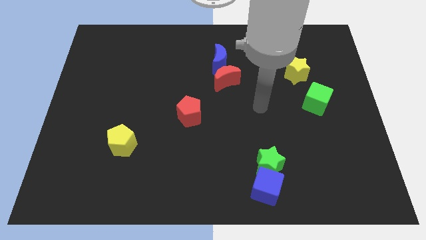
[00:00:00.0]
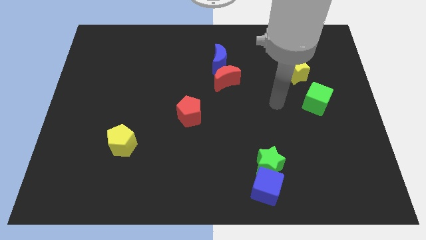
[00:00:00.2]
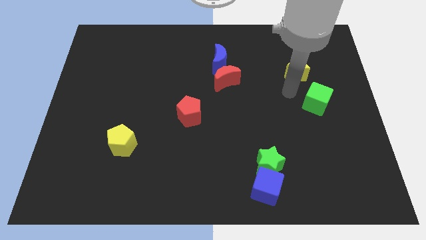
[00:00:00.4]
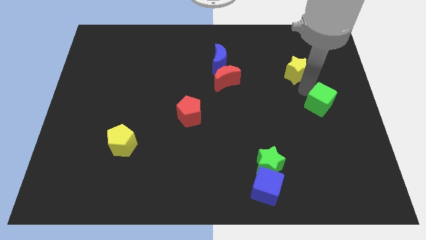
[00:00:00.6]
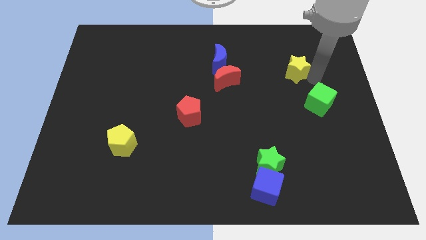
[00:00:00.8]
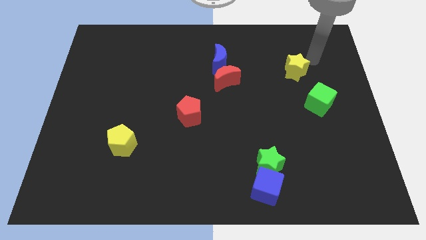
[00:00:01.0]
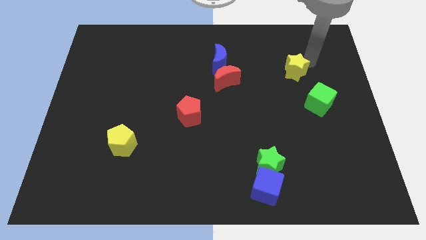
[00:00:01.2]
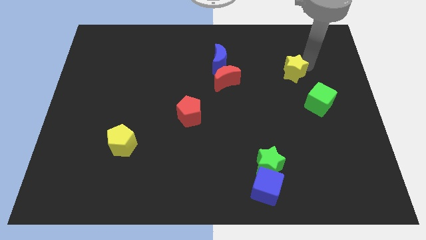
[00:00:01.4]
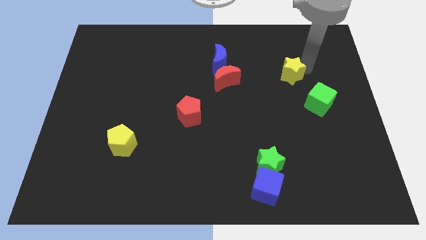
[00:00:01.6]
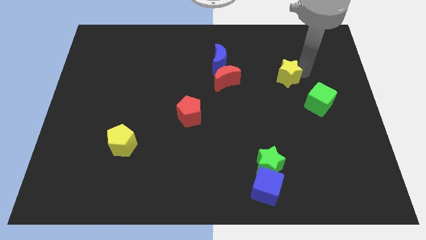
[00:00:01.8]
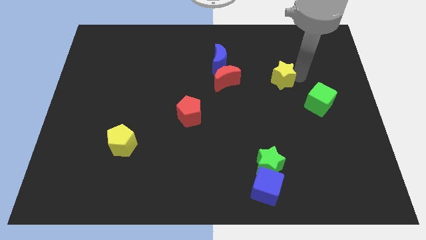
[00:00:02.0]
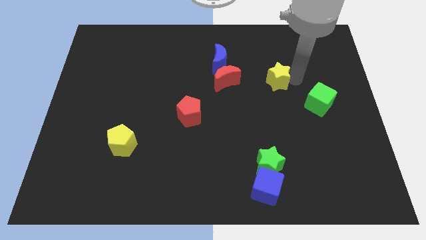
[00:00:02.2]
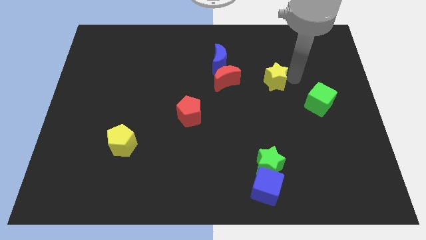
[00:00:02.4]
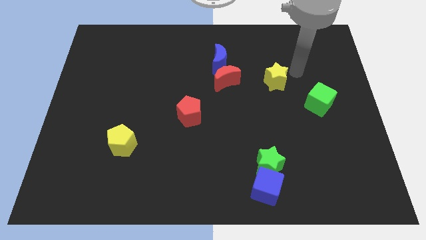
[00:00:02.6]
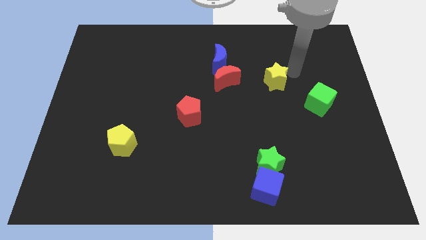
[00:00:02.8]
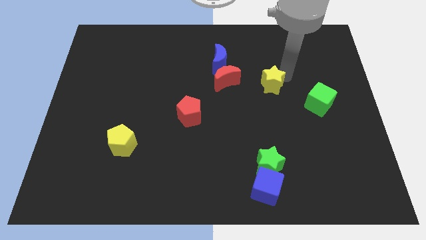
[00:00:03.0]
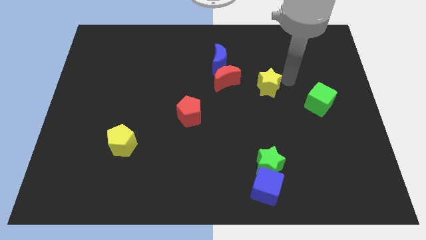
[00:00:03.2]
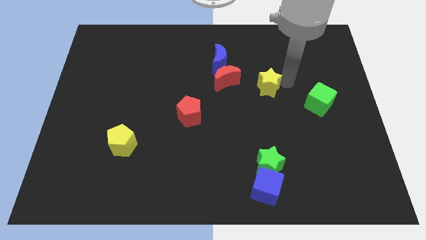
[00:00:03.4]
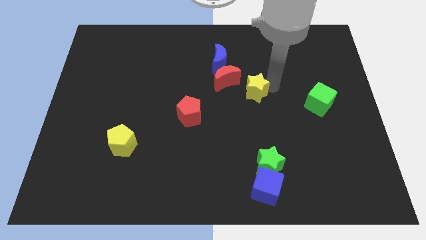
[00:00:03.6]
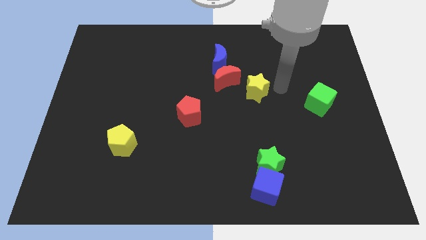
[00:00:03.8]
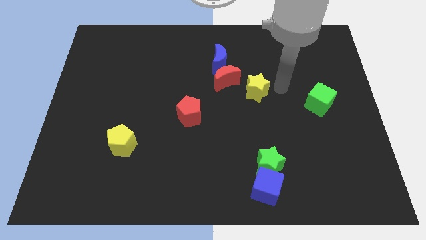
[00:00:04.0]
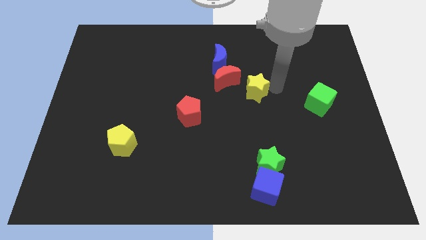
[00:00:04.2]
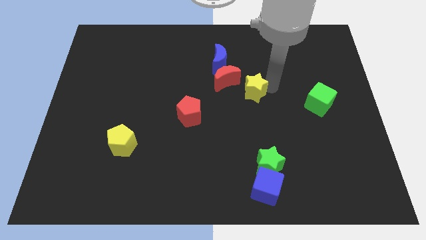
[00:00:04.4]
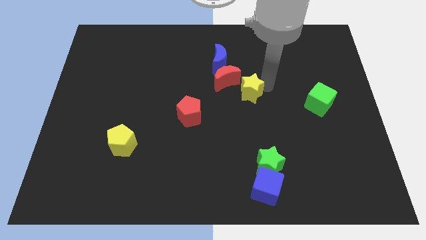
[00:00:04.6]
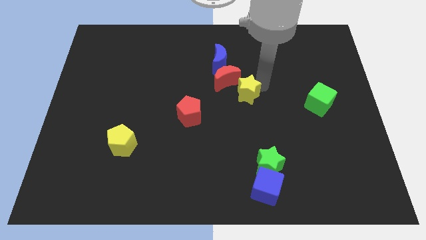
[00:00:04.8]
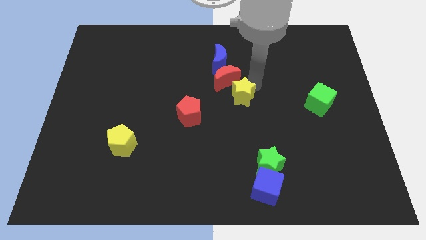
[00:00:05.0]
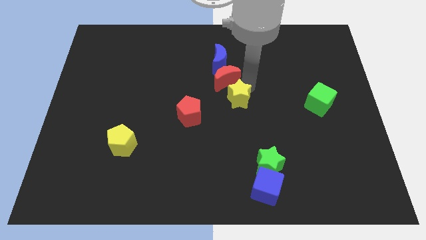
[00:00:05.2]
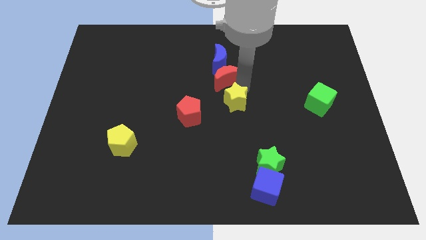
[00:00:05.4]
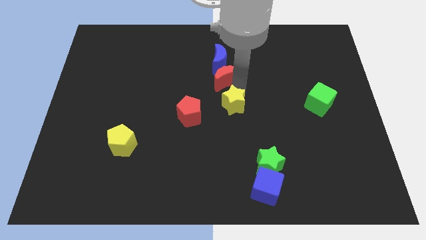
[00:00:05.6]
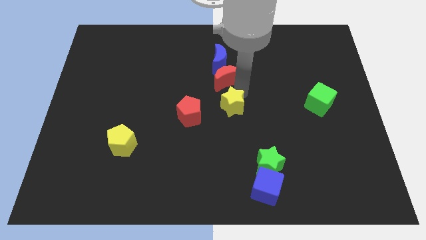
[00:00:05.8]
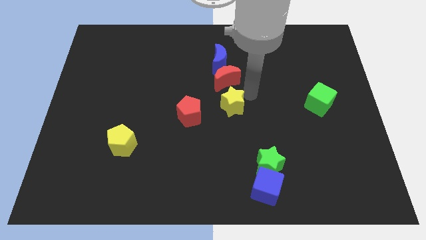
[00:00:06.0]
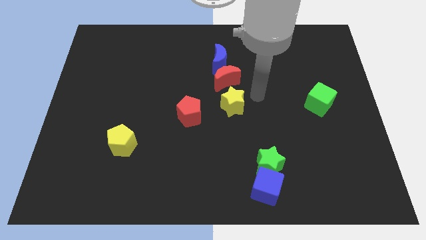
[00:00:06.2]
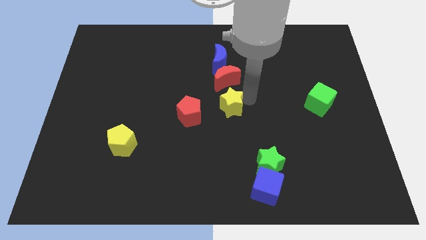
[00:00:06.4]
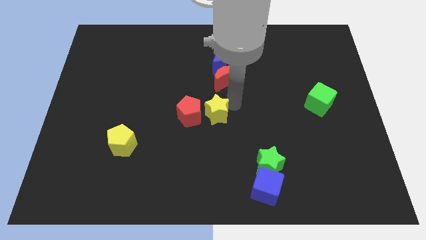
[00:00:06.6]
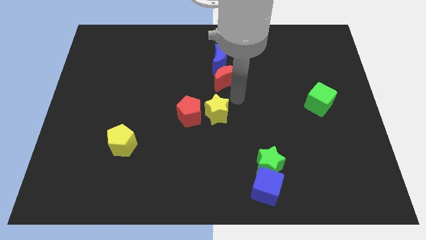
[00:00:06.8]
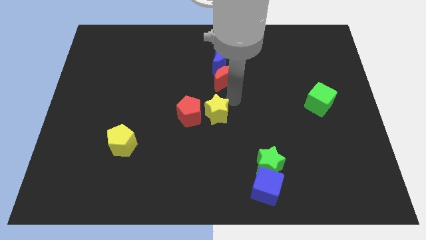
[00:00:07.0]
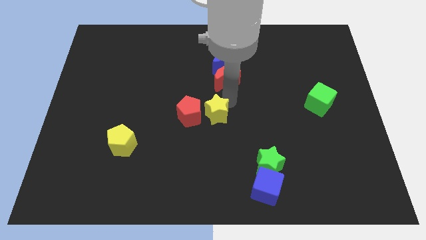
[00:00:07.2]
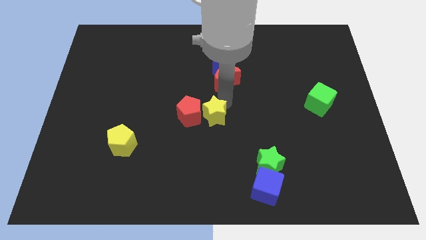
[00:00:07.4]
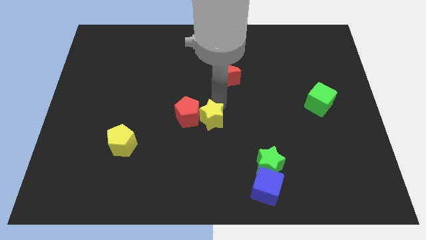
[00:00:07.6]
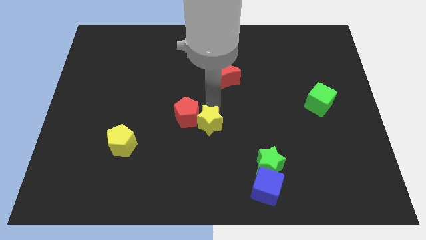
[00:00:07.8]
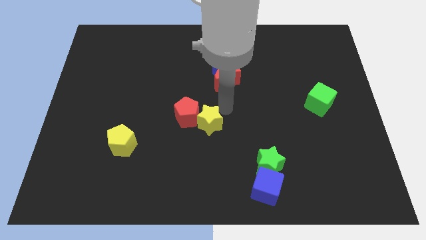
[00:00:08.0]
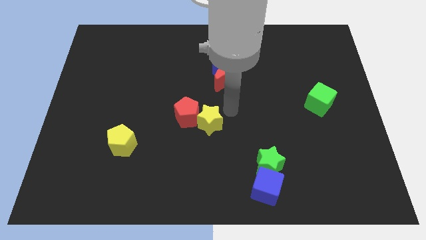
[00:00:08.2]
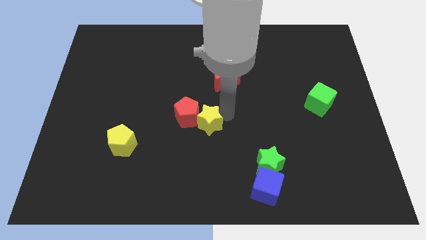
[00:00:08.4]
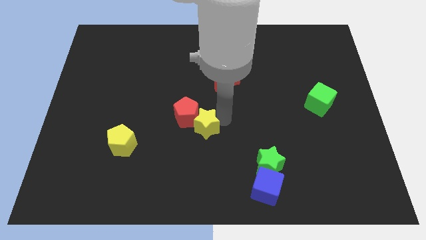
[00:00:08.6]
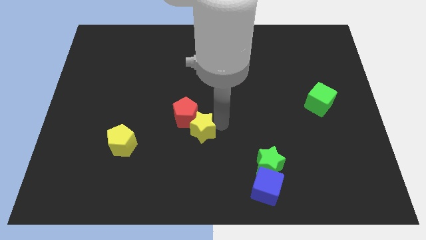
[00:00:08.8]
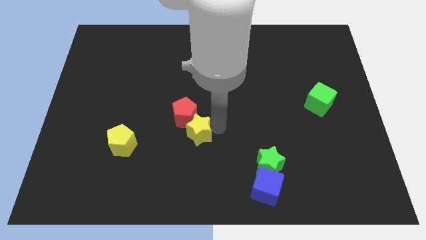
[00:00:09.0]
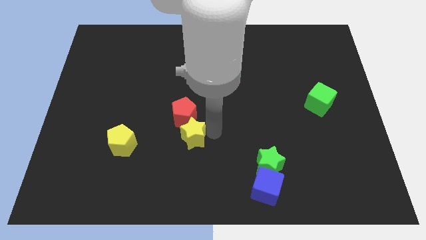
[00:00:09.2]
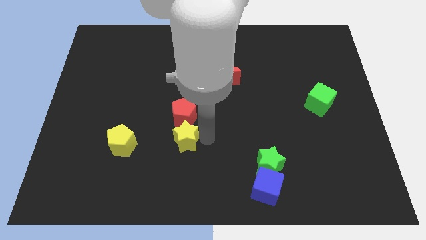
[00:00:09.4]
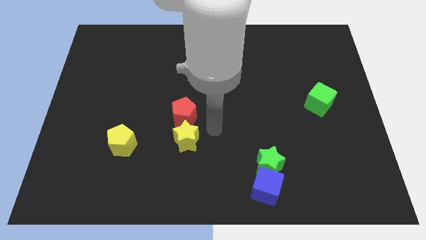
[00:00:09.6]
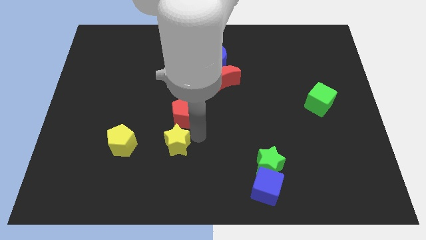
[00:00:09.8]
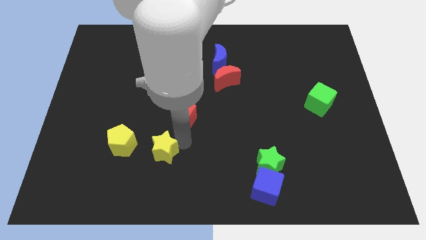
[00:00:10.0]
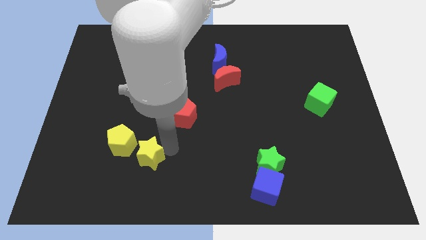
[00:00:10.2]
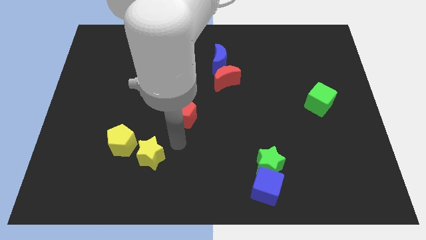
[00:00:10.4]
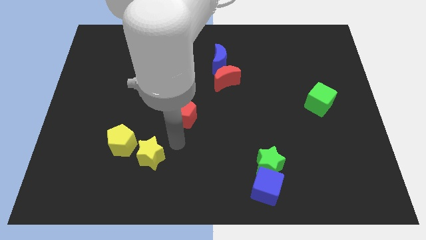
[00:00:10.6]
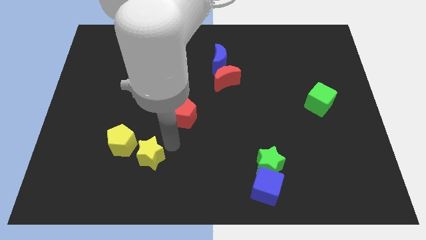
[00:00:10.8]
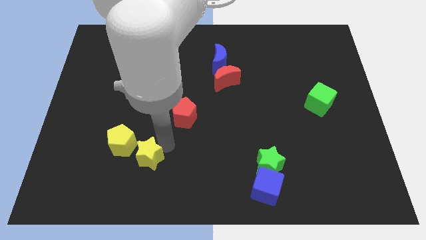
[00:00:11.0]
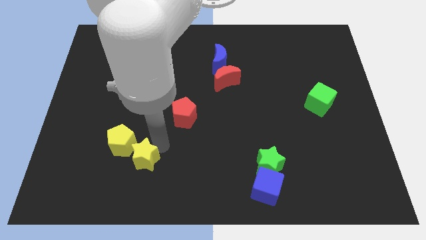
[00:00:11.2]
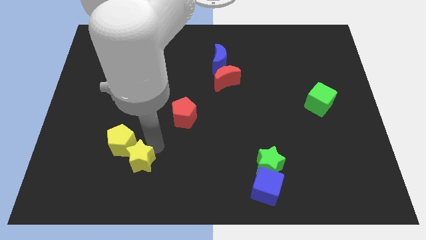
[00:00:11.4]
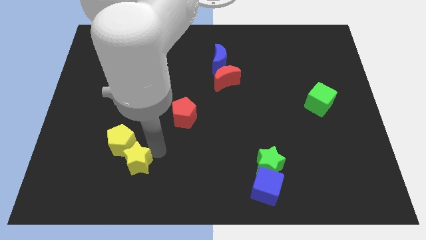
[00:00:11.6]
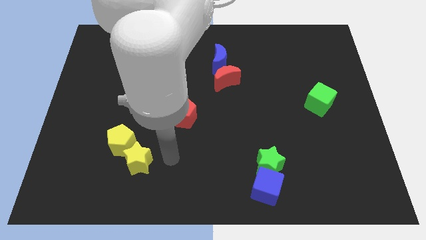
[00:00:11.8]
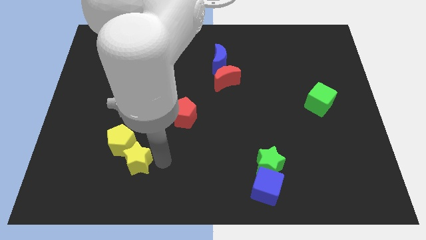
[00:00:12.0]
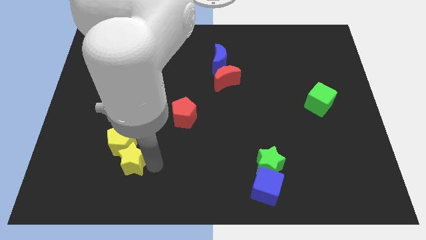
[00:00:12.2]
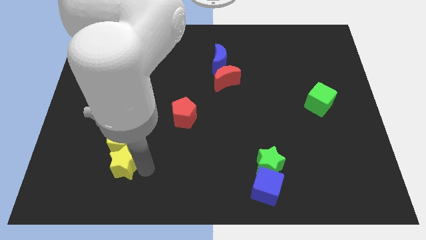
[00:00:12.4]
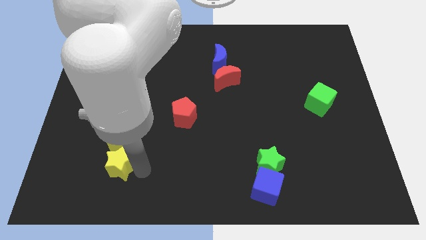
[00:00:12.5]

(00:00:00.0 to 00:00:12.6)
push the yellow star to the bottom left side of the yellow pentagon

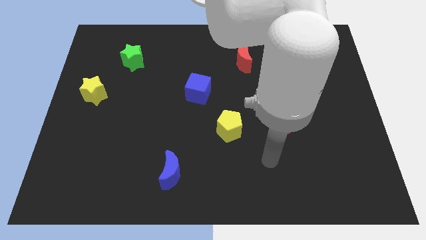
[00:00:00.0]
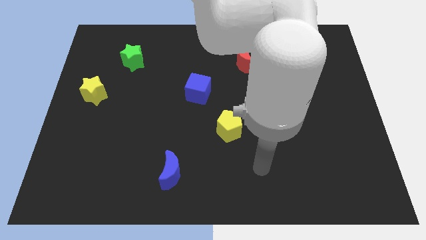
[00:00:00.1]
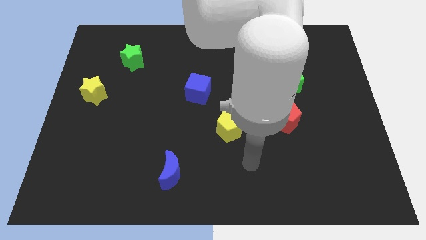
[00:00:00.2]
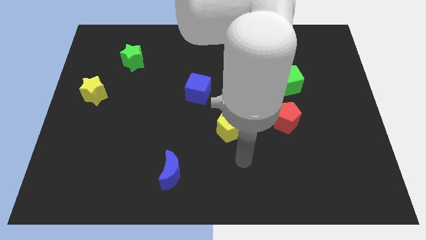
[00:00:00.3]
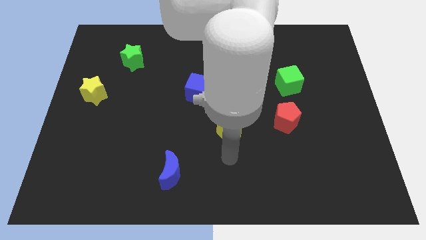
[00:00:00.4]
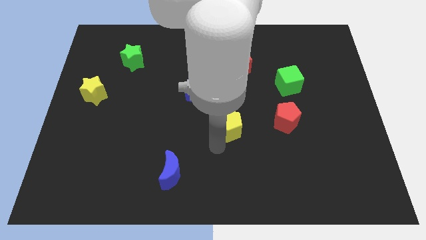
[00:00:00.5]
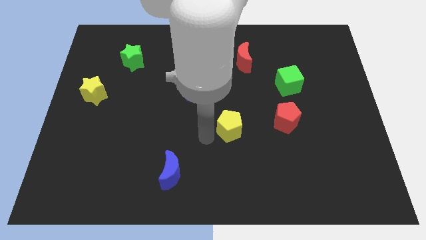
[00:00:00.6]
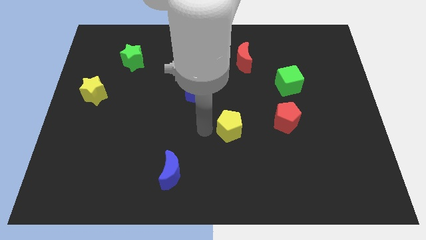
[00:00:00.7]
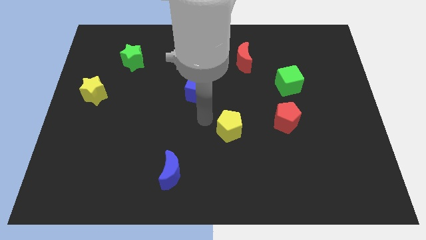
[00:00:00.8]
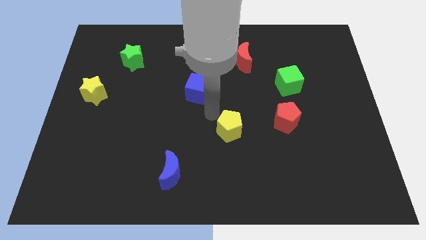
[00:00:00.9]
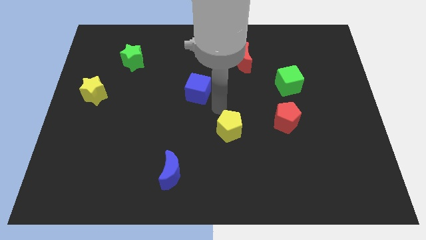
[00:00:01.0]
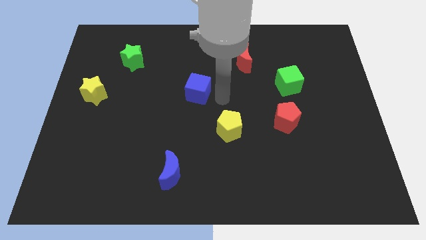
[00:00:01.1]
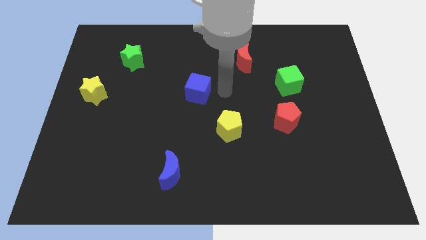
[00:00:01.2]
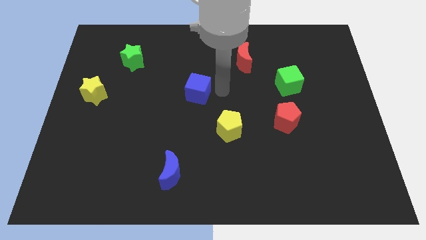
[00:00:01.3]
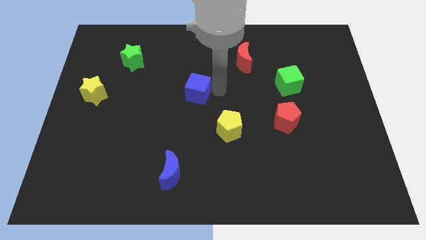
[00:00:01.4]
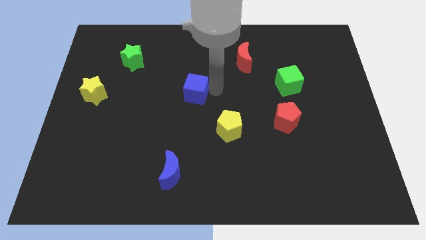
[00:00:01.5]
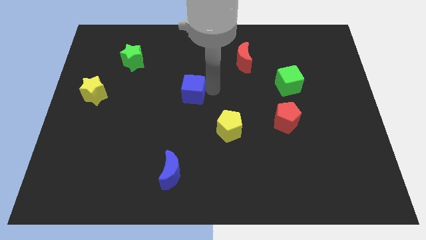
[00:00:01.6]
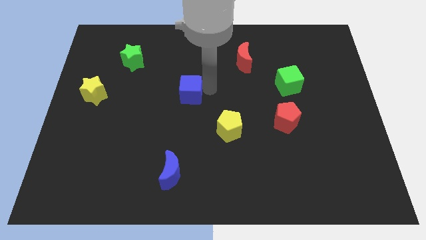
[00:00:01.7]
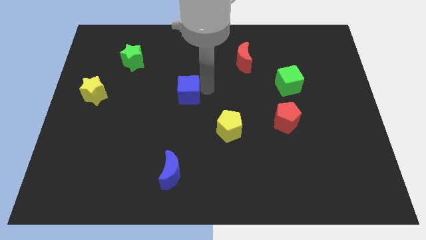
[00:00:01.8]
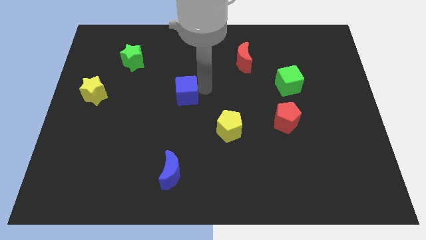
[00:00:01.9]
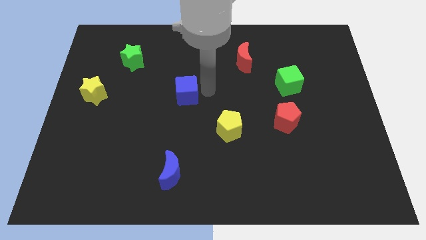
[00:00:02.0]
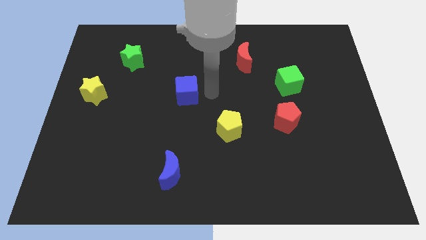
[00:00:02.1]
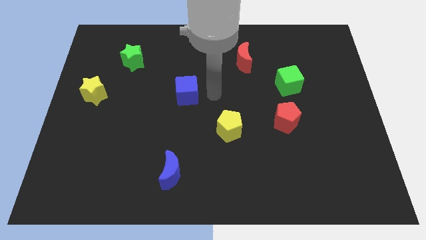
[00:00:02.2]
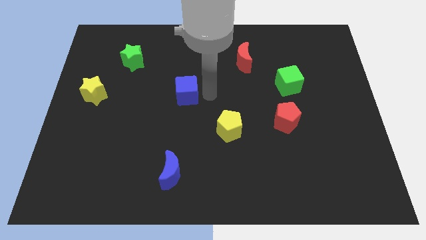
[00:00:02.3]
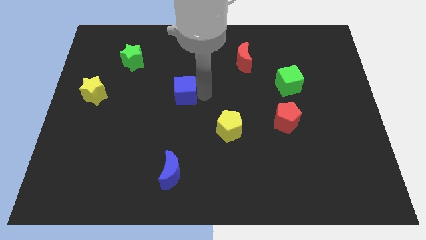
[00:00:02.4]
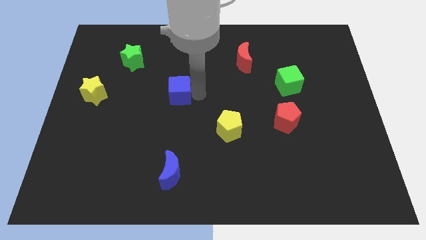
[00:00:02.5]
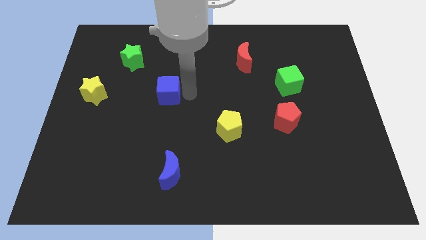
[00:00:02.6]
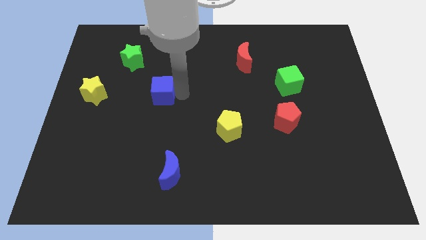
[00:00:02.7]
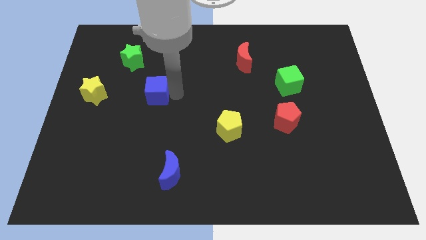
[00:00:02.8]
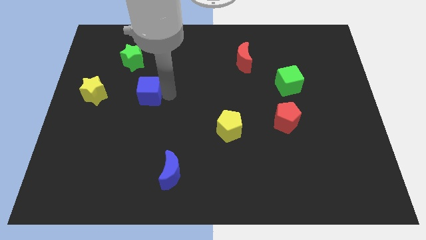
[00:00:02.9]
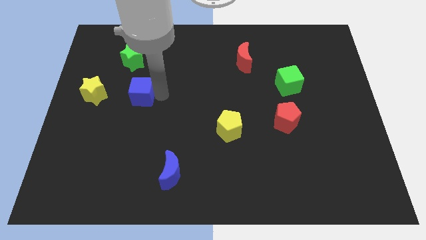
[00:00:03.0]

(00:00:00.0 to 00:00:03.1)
slide the blue cube to the bottom of the green star
